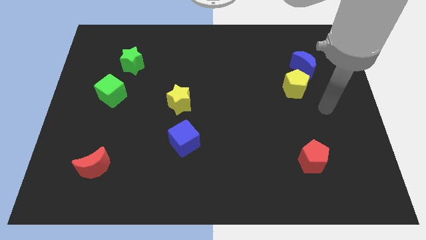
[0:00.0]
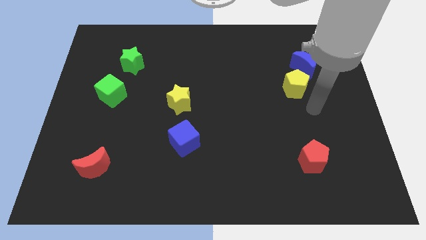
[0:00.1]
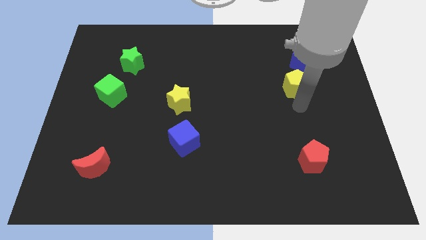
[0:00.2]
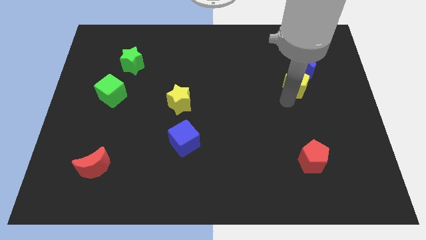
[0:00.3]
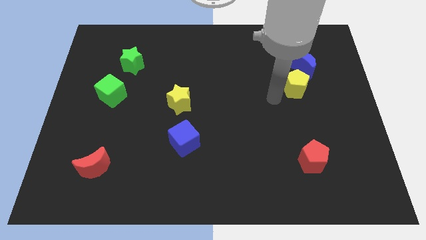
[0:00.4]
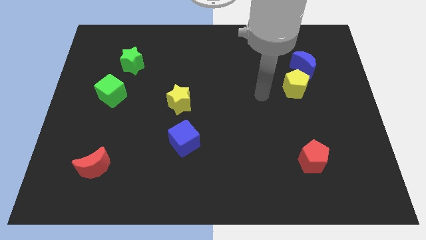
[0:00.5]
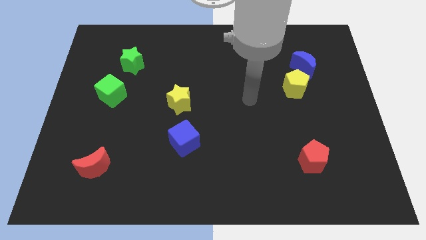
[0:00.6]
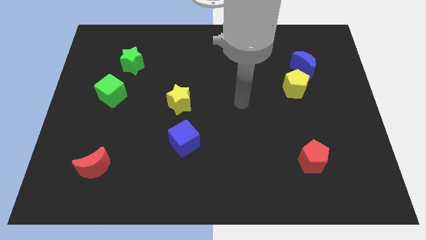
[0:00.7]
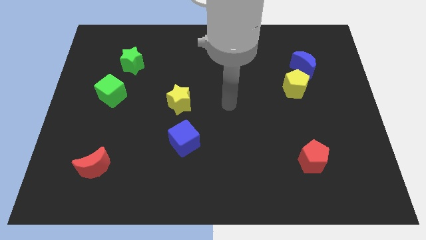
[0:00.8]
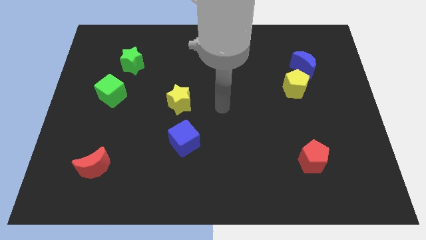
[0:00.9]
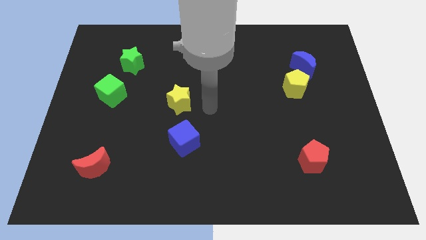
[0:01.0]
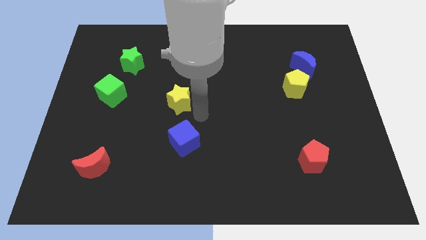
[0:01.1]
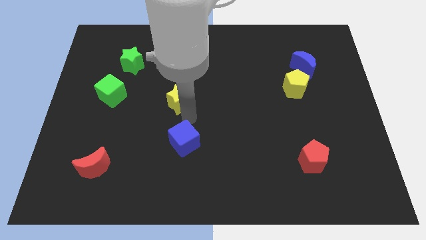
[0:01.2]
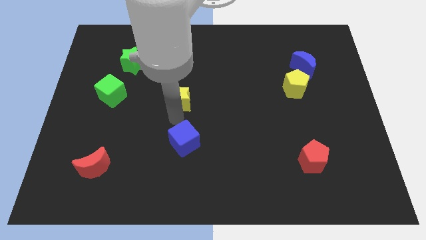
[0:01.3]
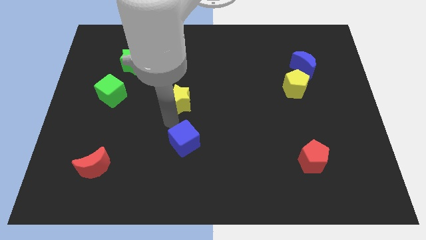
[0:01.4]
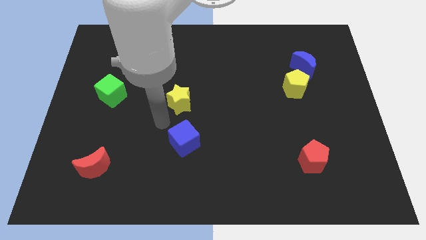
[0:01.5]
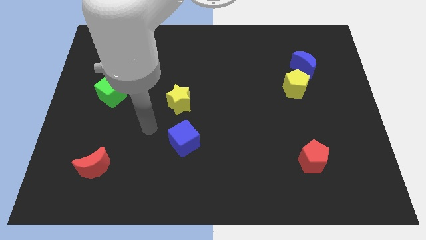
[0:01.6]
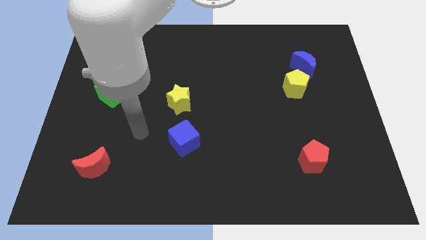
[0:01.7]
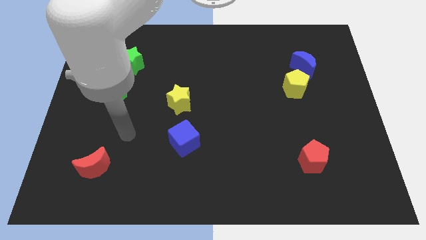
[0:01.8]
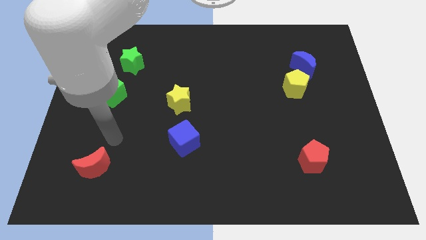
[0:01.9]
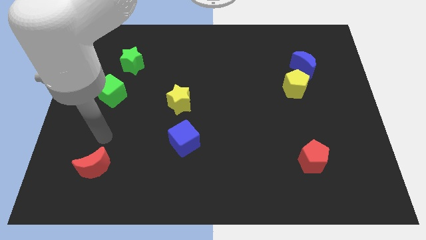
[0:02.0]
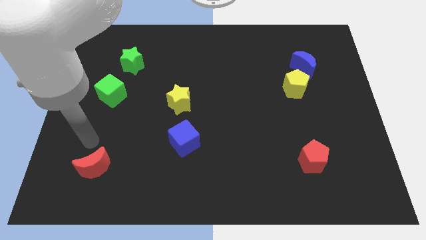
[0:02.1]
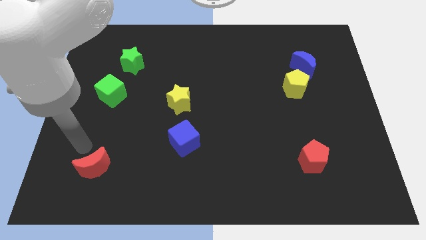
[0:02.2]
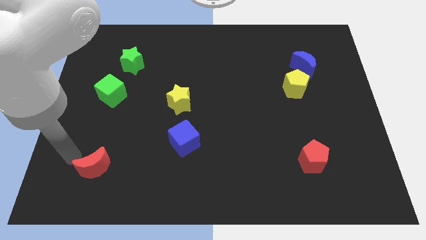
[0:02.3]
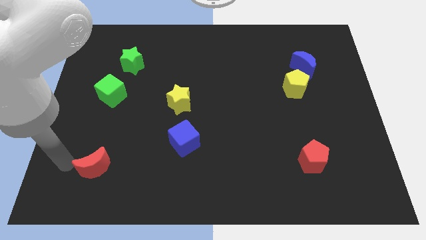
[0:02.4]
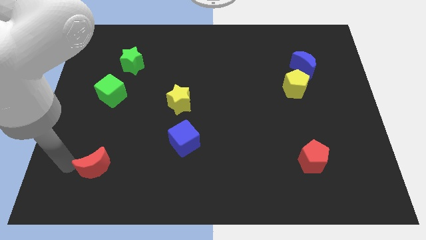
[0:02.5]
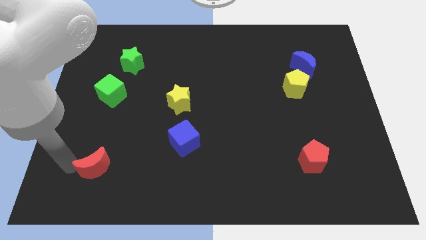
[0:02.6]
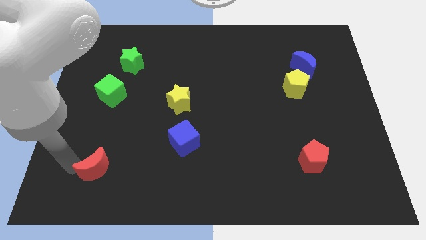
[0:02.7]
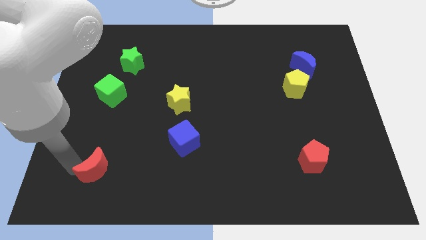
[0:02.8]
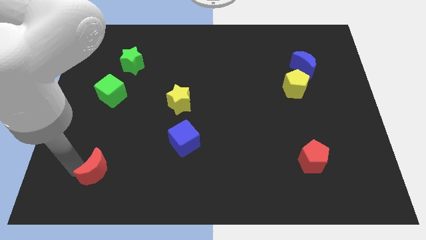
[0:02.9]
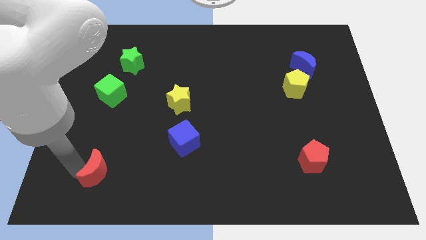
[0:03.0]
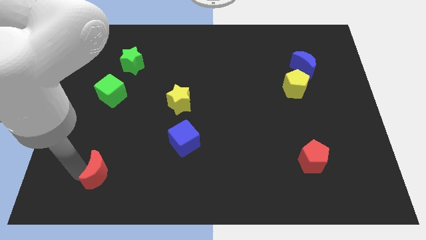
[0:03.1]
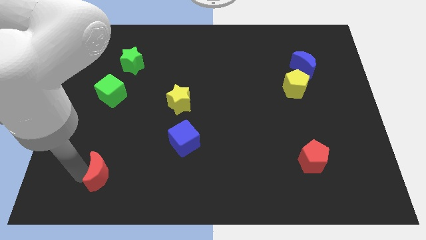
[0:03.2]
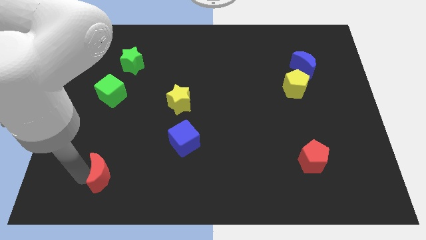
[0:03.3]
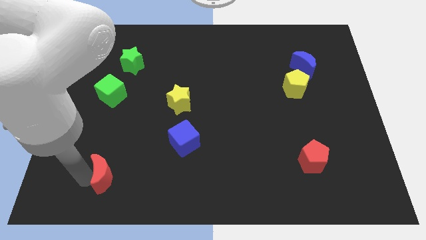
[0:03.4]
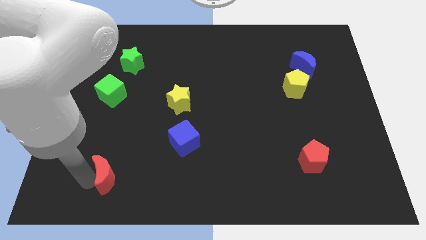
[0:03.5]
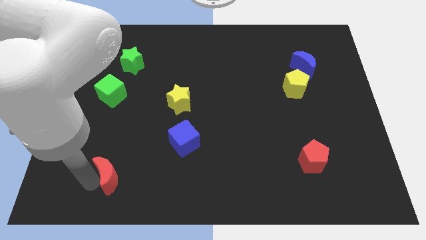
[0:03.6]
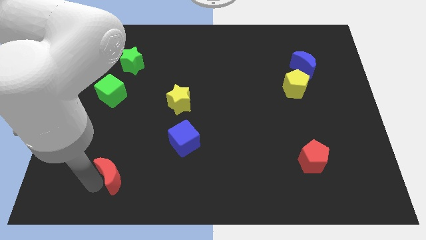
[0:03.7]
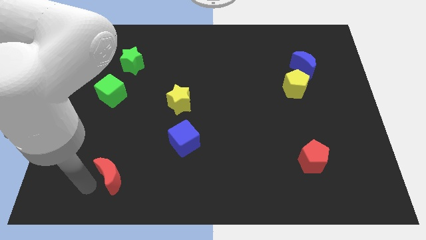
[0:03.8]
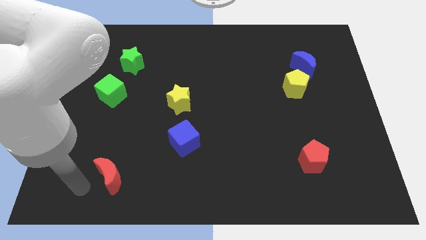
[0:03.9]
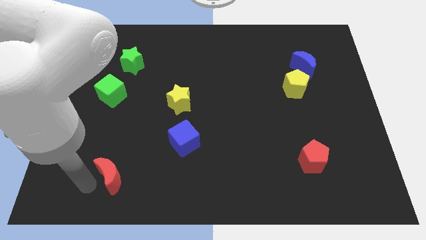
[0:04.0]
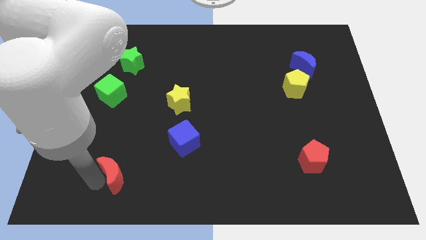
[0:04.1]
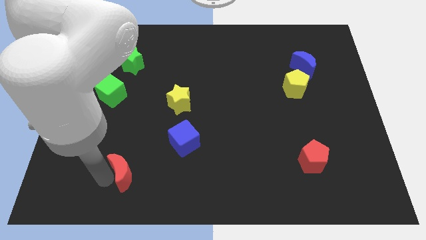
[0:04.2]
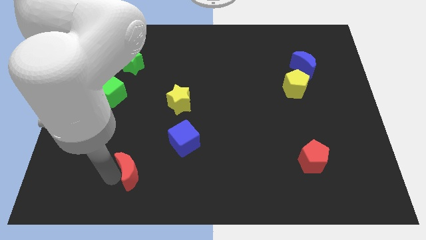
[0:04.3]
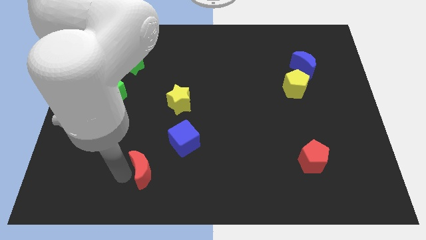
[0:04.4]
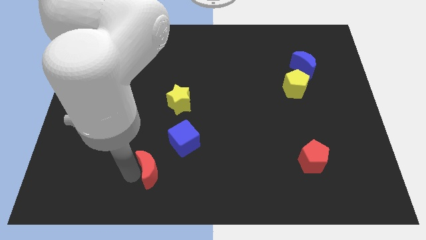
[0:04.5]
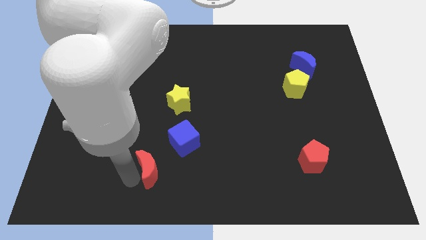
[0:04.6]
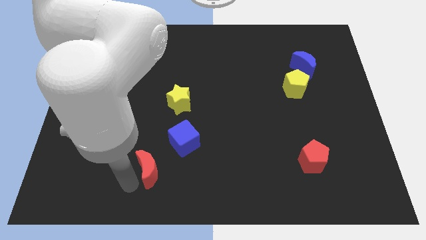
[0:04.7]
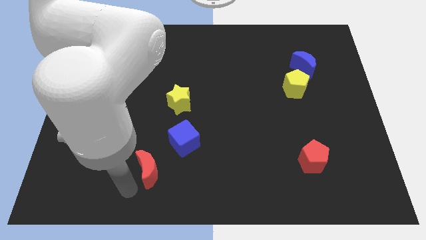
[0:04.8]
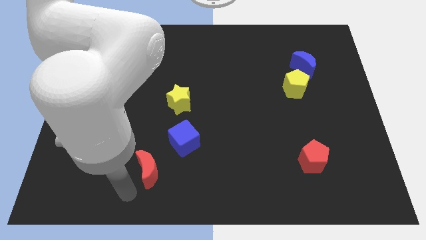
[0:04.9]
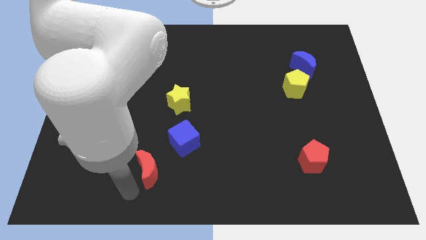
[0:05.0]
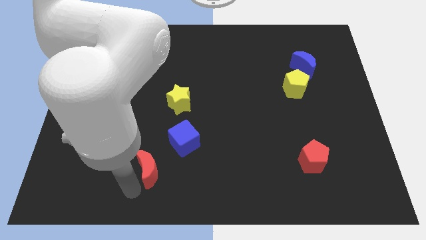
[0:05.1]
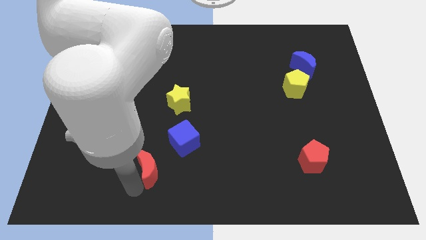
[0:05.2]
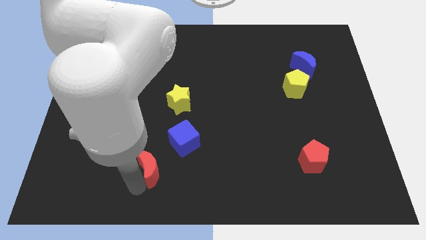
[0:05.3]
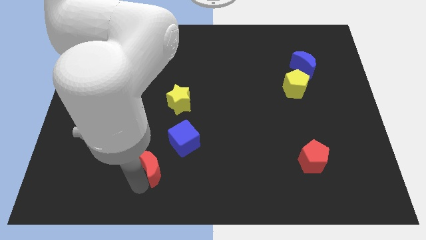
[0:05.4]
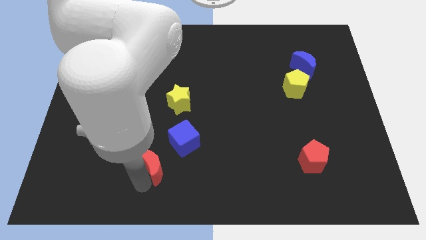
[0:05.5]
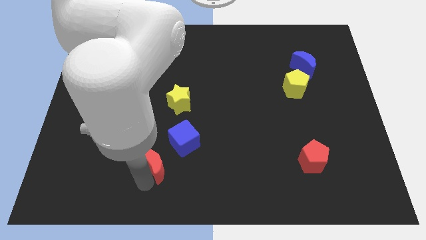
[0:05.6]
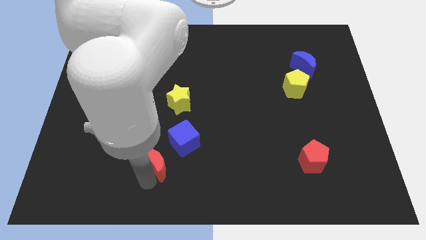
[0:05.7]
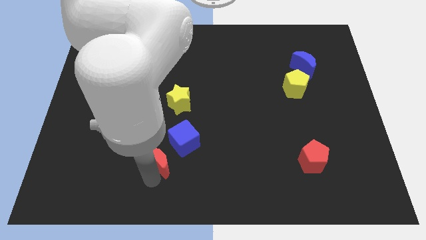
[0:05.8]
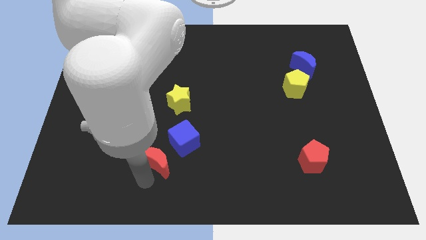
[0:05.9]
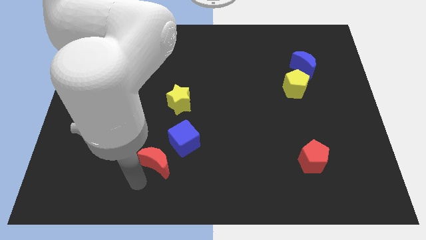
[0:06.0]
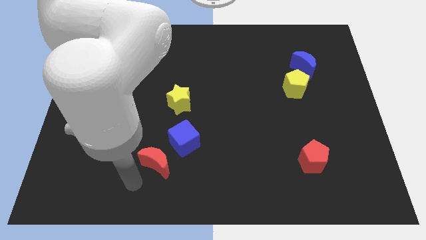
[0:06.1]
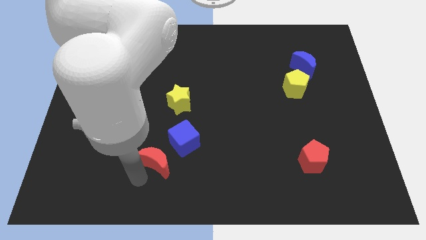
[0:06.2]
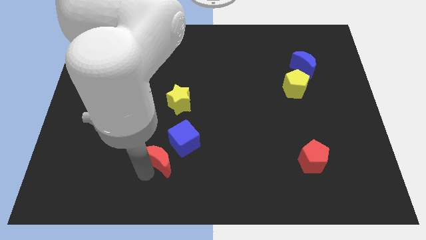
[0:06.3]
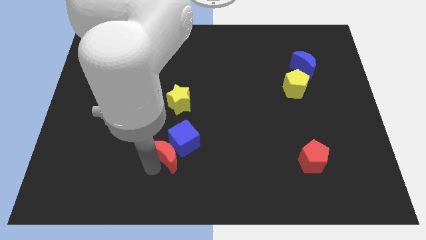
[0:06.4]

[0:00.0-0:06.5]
put the red moon next to the blue cube
